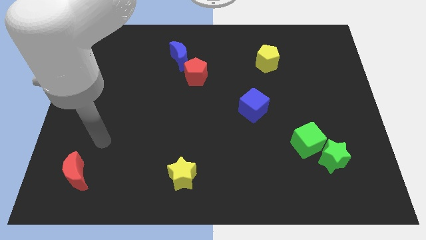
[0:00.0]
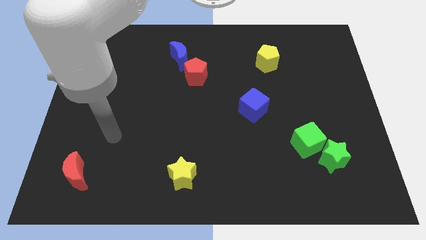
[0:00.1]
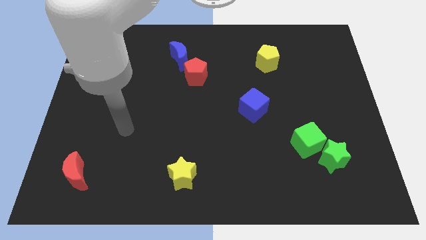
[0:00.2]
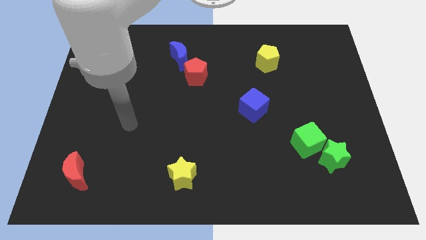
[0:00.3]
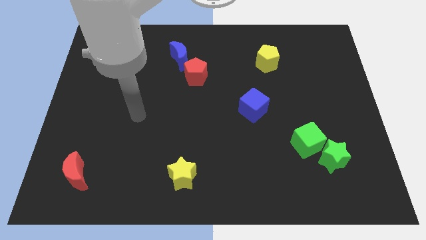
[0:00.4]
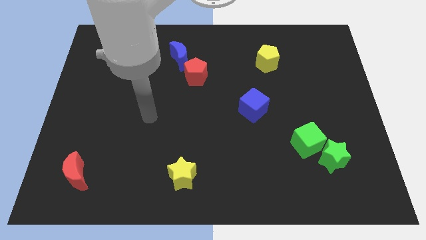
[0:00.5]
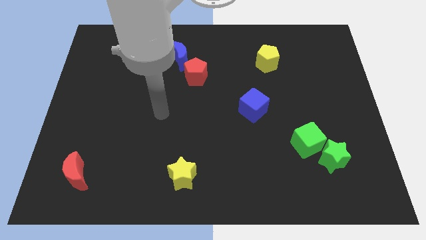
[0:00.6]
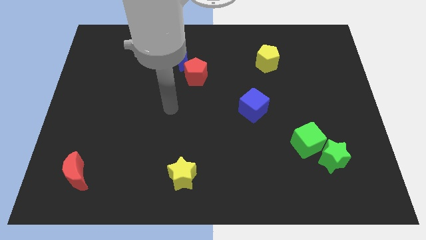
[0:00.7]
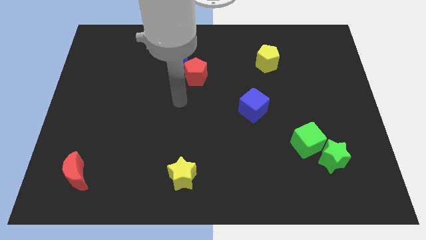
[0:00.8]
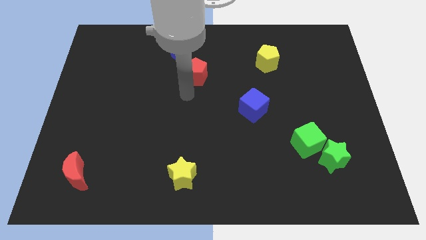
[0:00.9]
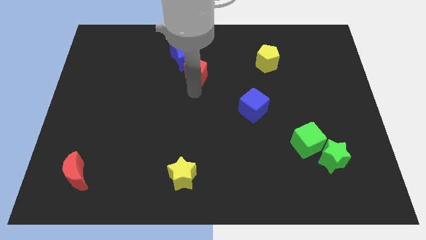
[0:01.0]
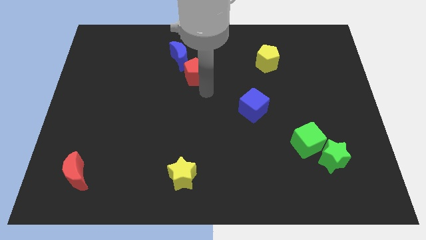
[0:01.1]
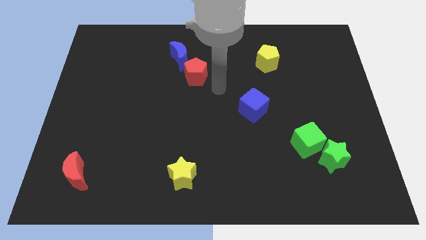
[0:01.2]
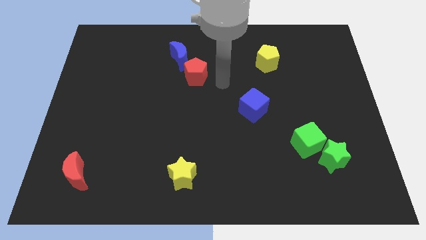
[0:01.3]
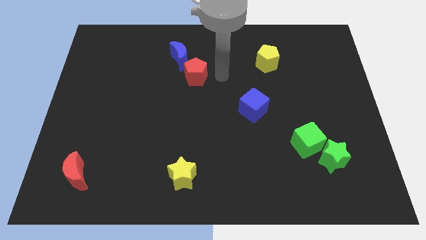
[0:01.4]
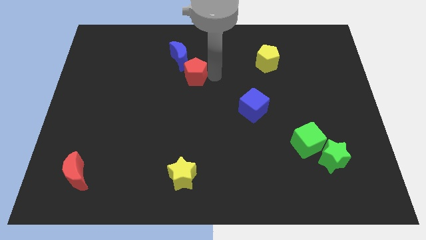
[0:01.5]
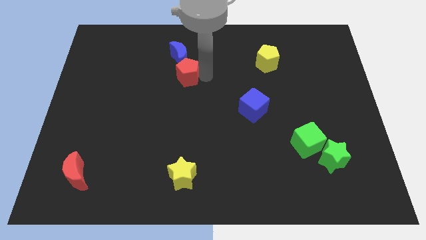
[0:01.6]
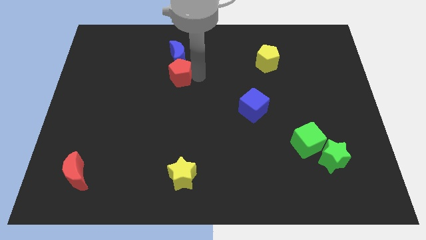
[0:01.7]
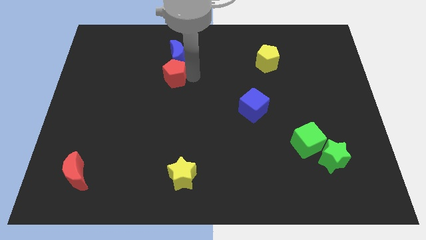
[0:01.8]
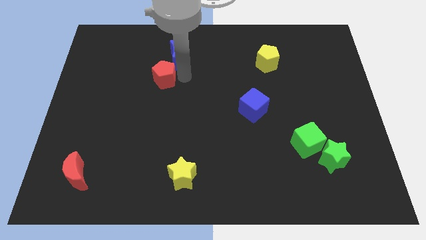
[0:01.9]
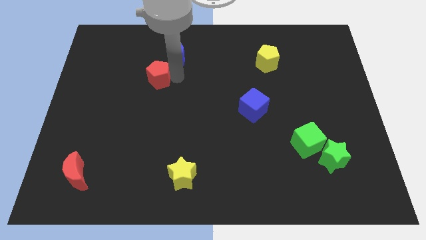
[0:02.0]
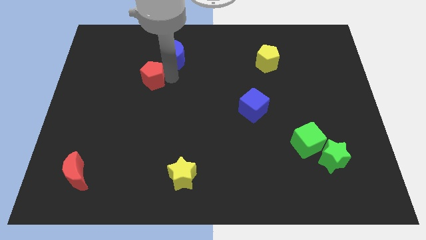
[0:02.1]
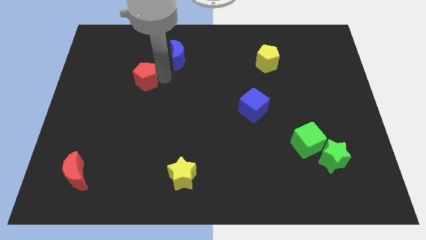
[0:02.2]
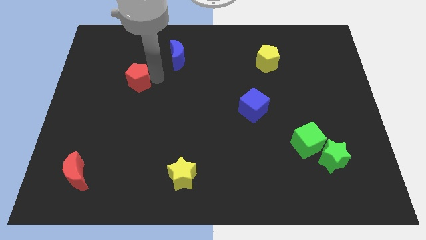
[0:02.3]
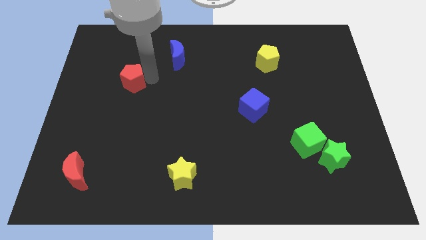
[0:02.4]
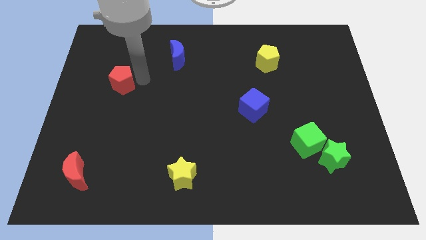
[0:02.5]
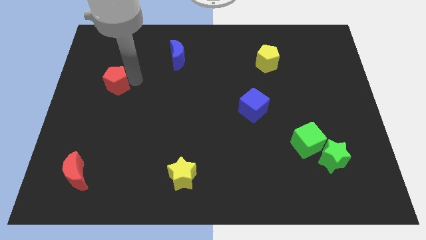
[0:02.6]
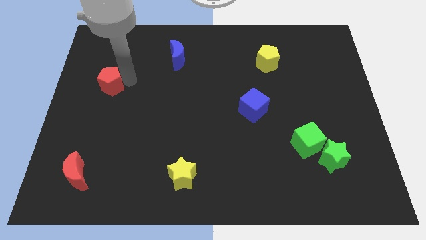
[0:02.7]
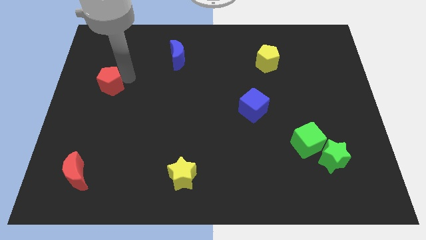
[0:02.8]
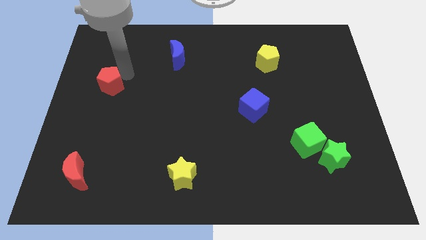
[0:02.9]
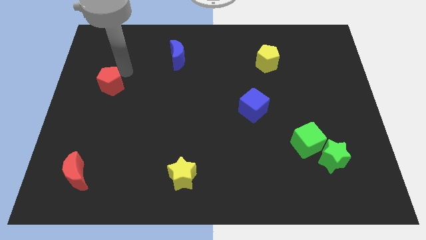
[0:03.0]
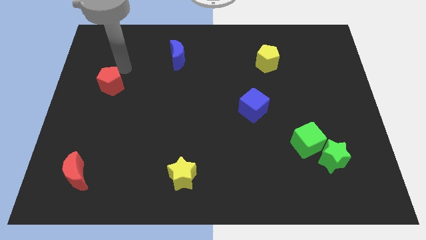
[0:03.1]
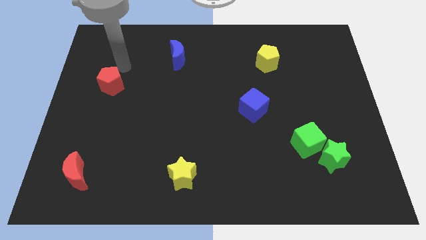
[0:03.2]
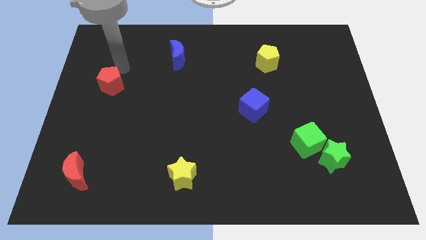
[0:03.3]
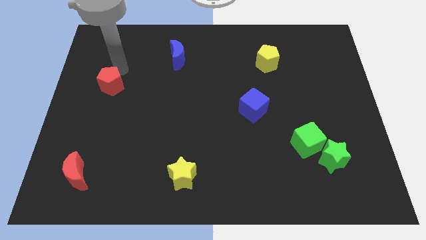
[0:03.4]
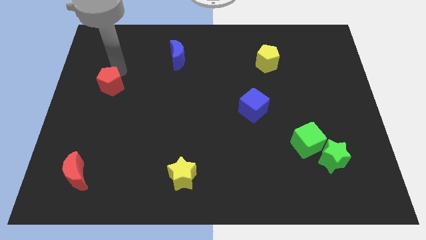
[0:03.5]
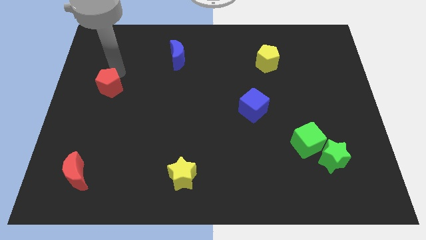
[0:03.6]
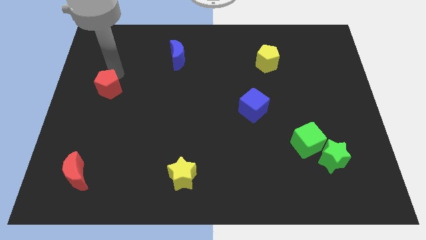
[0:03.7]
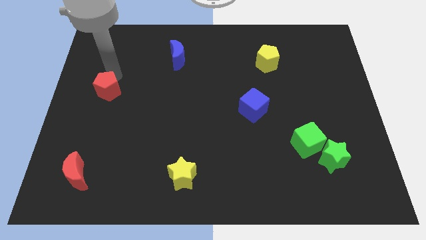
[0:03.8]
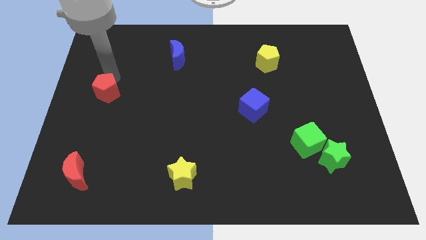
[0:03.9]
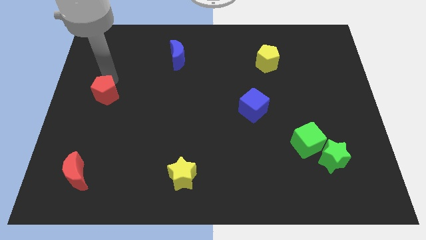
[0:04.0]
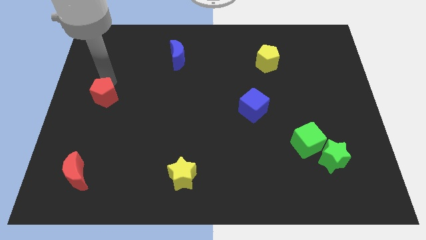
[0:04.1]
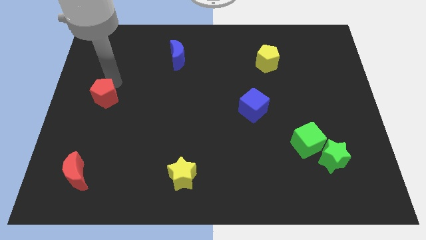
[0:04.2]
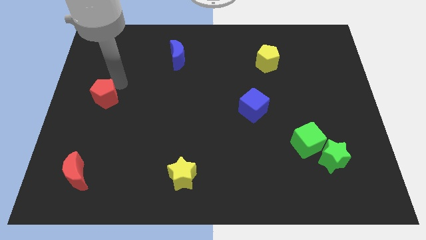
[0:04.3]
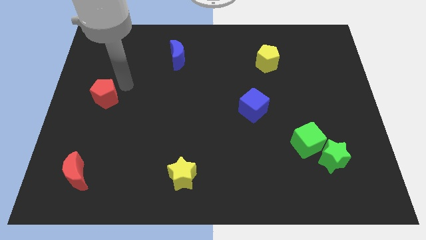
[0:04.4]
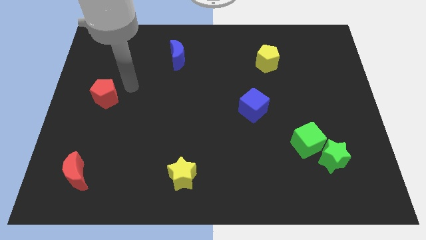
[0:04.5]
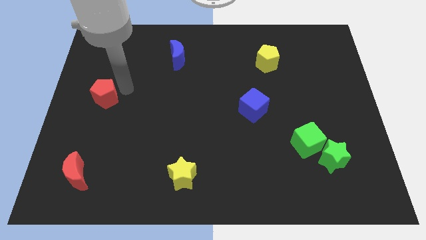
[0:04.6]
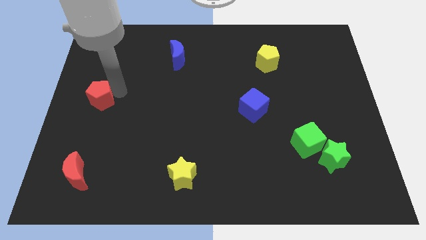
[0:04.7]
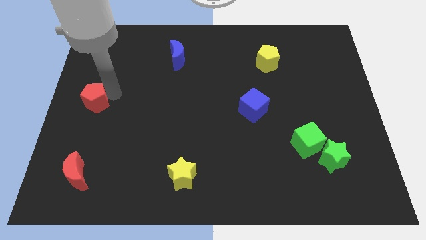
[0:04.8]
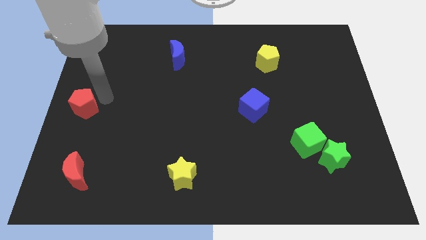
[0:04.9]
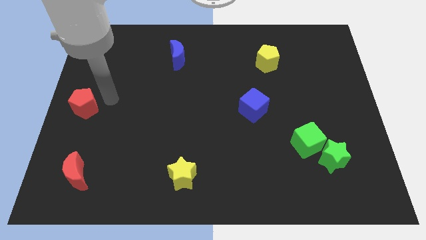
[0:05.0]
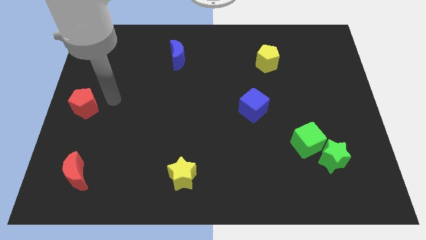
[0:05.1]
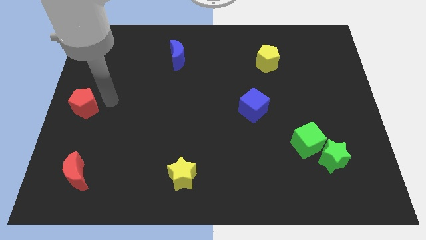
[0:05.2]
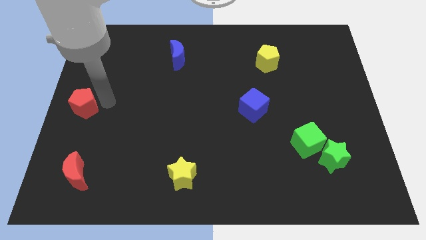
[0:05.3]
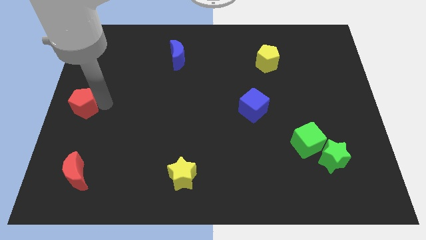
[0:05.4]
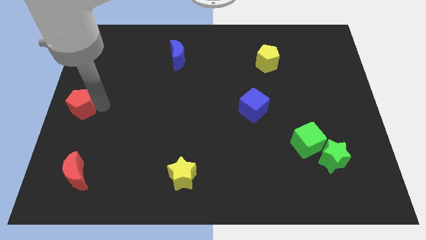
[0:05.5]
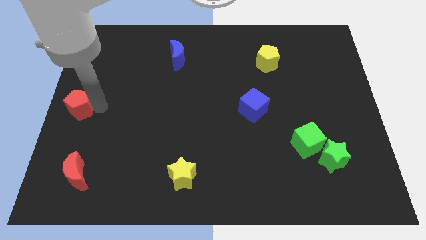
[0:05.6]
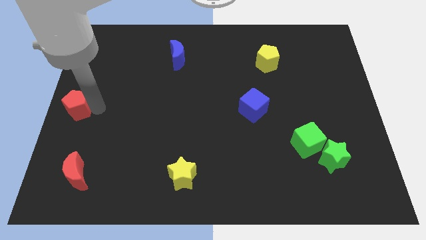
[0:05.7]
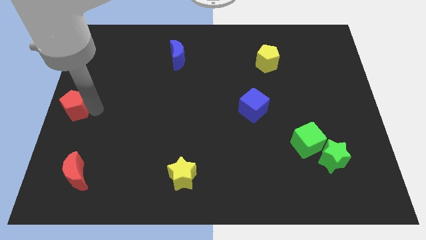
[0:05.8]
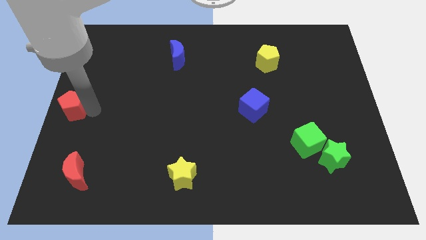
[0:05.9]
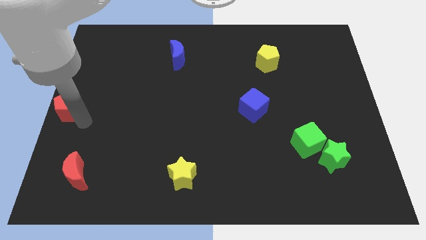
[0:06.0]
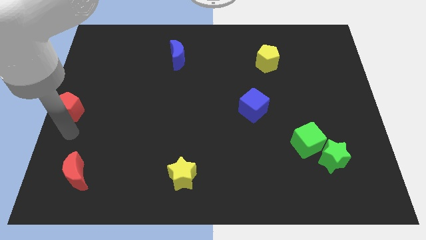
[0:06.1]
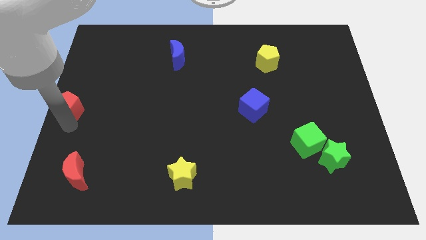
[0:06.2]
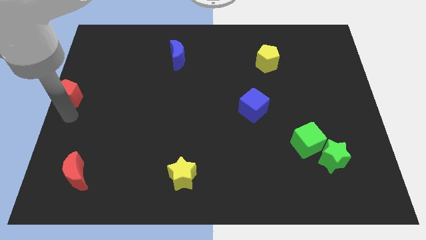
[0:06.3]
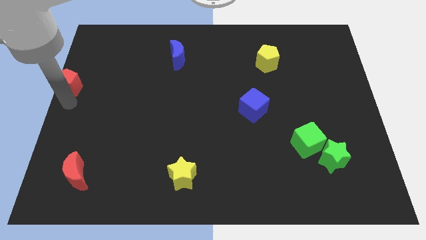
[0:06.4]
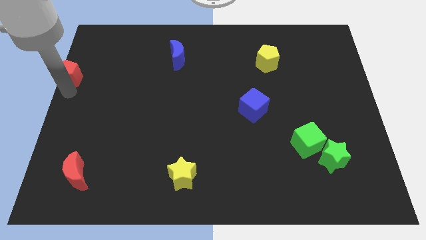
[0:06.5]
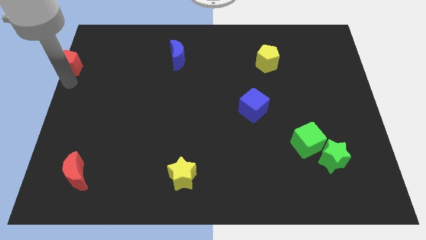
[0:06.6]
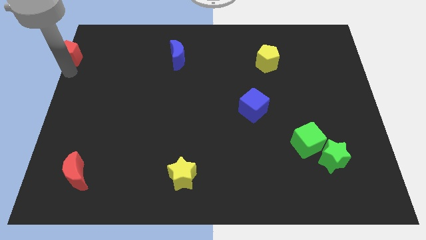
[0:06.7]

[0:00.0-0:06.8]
put the red pentagon to the top left of the board

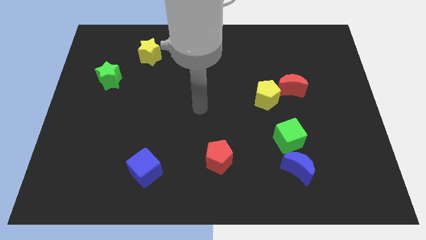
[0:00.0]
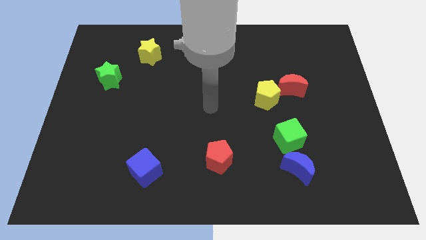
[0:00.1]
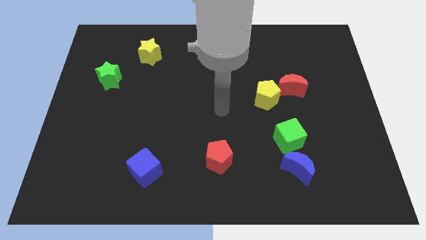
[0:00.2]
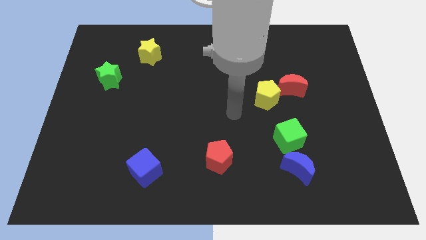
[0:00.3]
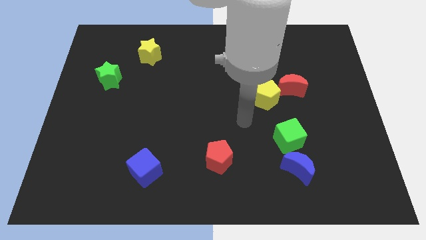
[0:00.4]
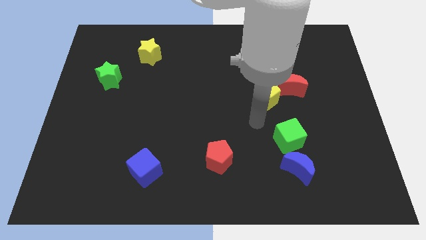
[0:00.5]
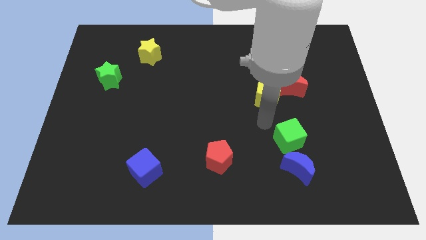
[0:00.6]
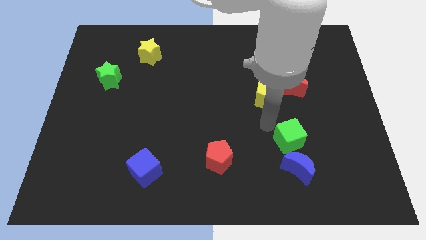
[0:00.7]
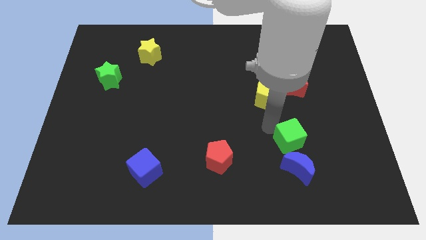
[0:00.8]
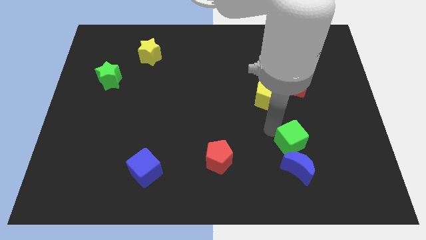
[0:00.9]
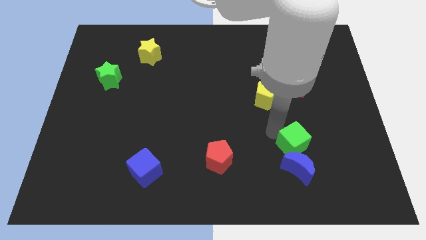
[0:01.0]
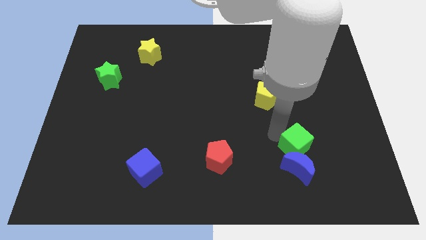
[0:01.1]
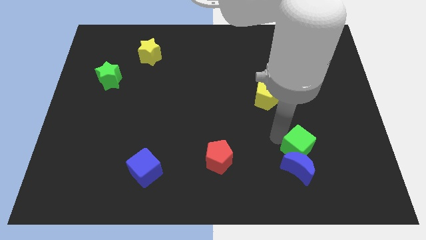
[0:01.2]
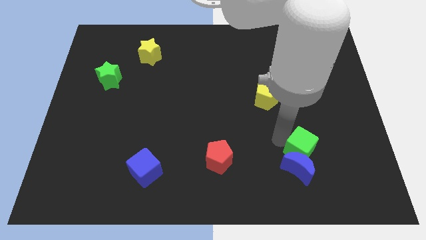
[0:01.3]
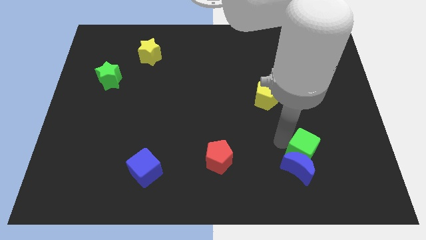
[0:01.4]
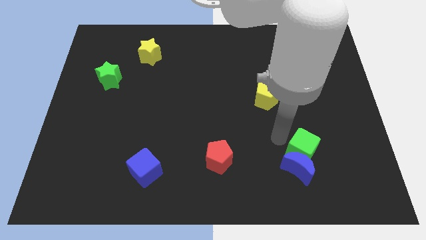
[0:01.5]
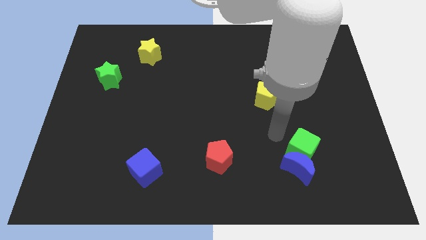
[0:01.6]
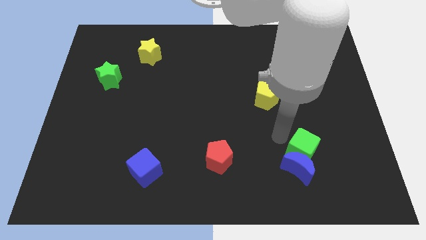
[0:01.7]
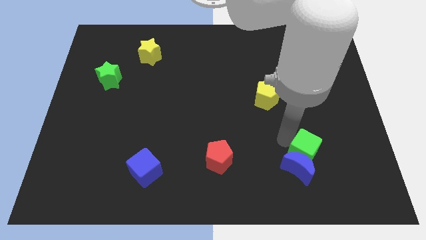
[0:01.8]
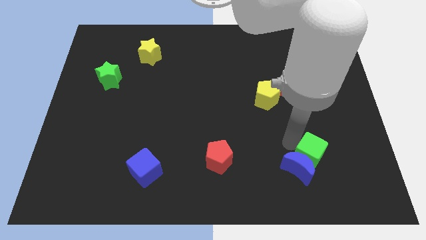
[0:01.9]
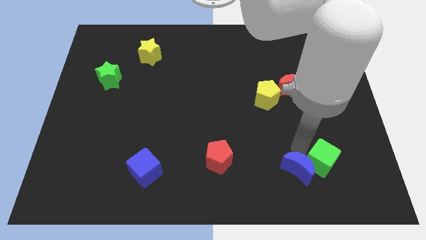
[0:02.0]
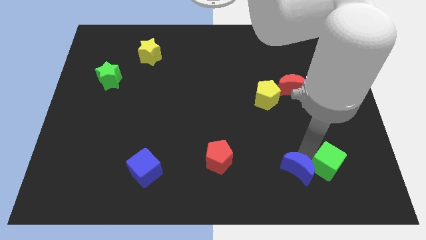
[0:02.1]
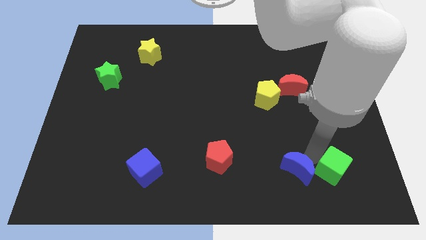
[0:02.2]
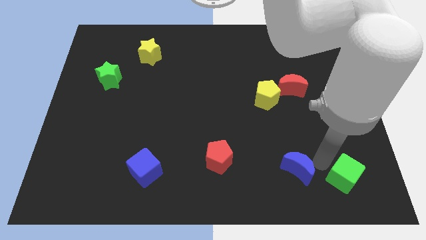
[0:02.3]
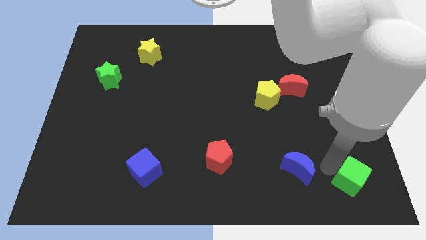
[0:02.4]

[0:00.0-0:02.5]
push the green cube to the bottom right corner
